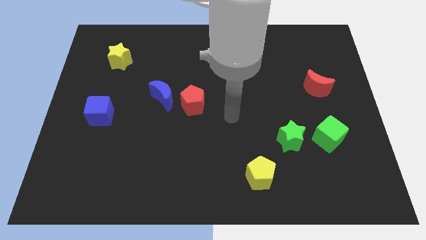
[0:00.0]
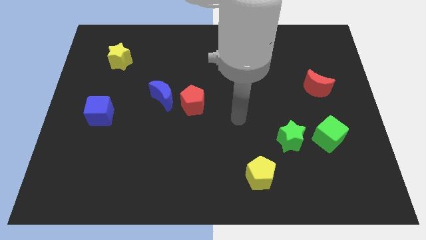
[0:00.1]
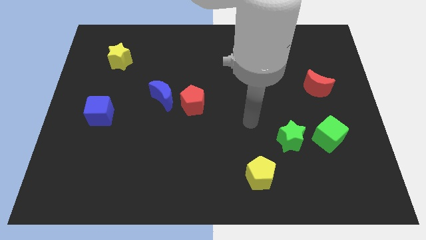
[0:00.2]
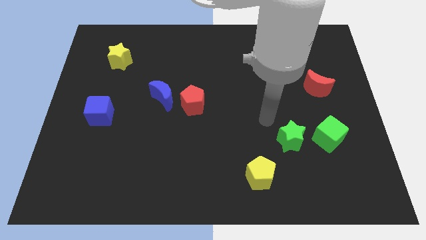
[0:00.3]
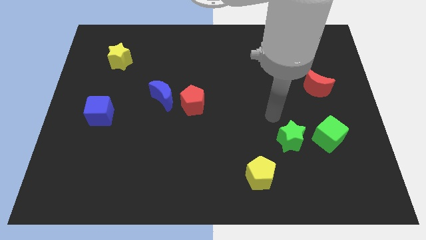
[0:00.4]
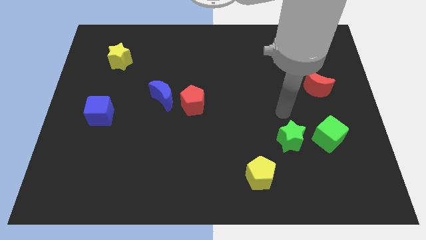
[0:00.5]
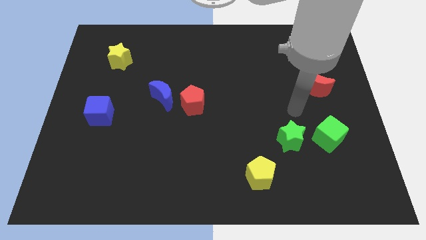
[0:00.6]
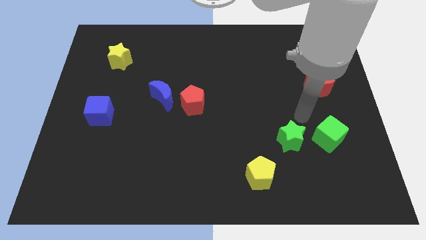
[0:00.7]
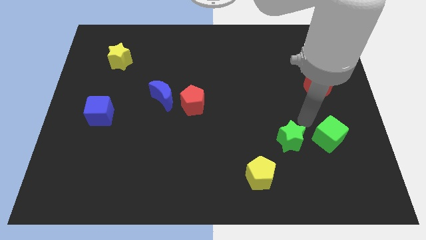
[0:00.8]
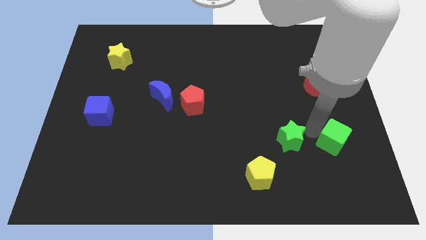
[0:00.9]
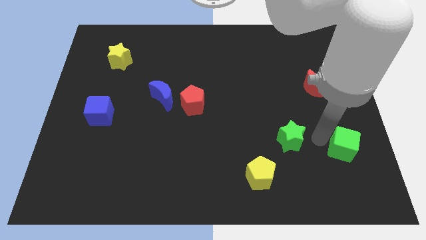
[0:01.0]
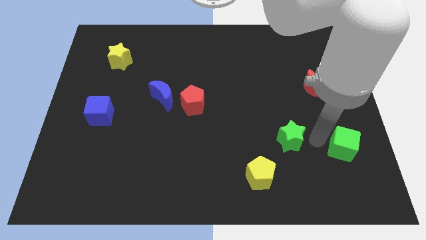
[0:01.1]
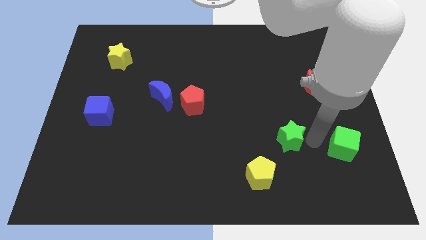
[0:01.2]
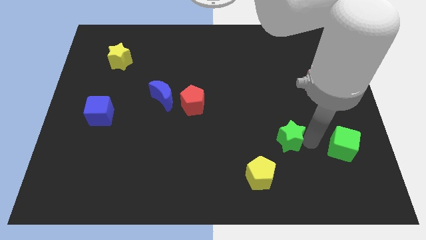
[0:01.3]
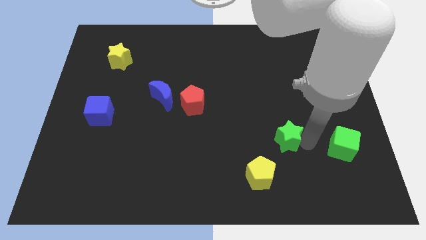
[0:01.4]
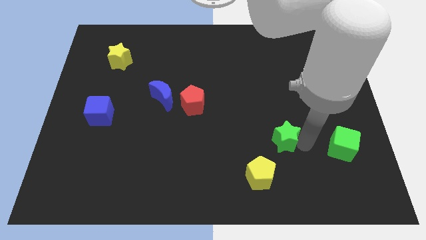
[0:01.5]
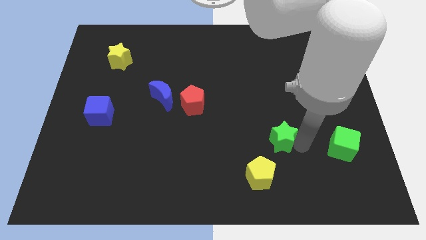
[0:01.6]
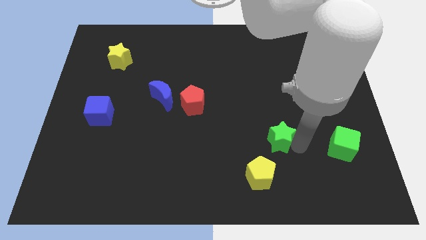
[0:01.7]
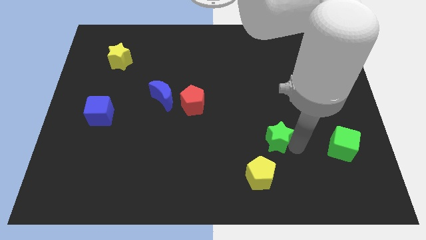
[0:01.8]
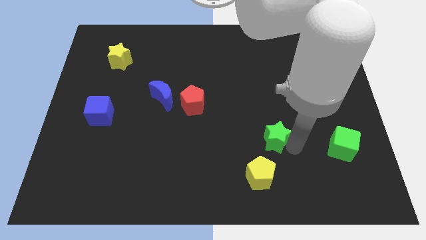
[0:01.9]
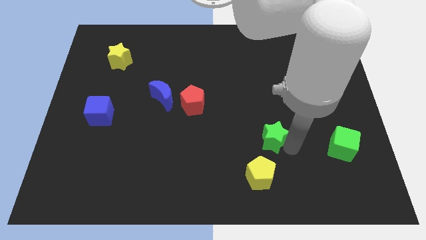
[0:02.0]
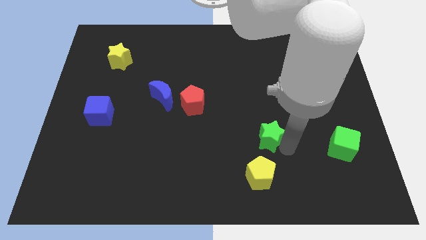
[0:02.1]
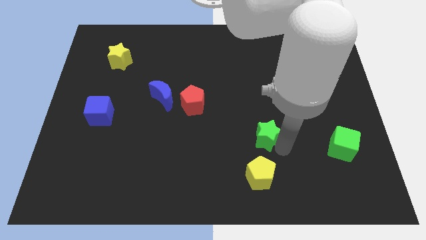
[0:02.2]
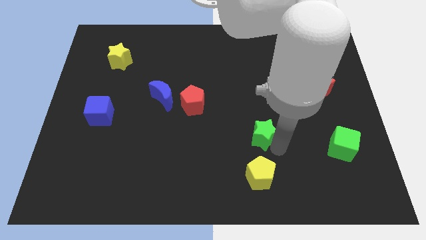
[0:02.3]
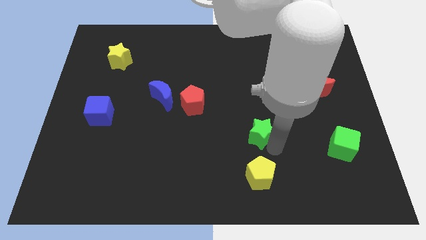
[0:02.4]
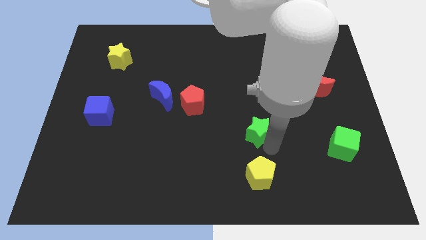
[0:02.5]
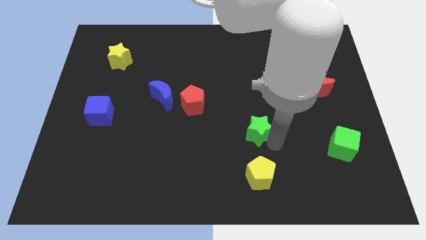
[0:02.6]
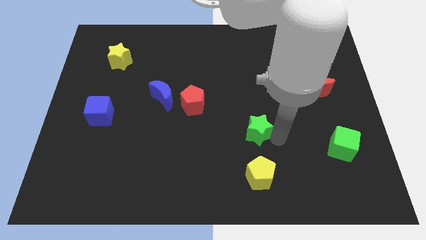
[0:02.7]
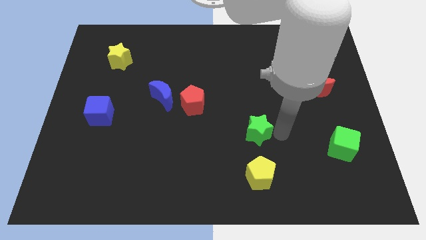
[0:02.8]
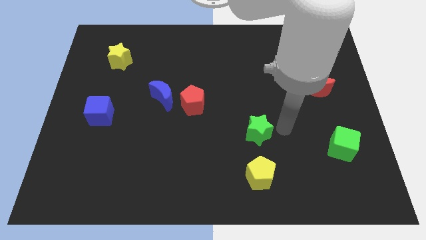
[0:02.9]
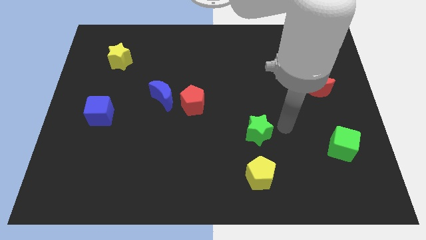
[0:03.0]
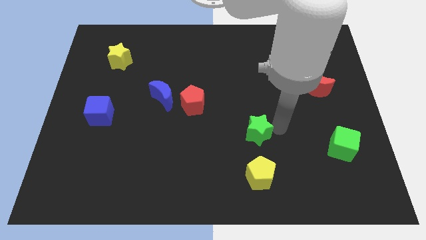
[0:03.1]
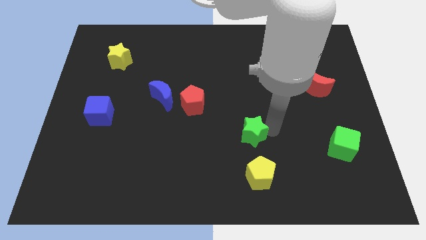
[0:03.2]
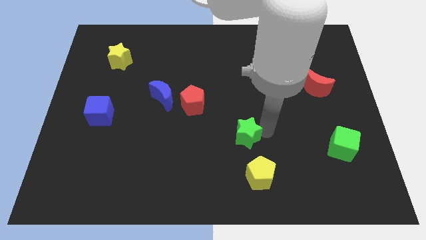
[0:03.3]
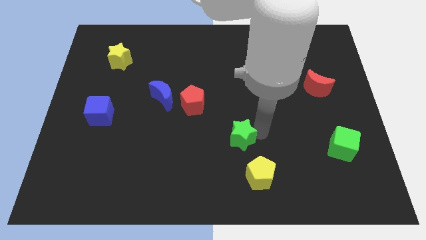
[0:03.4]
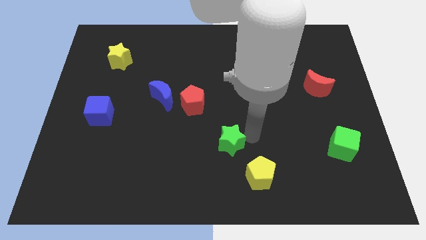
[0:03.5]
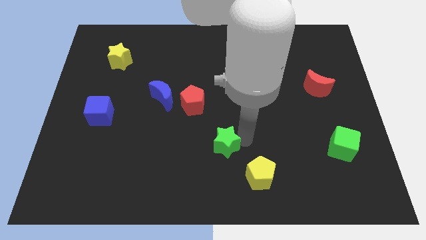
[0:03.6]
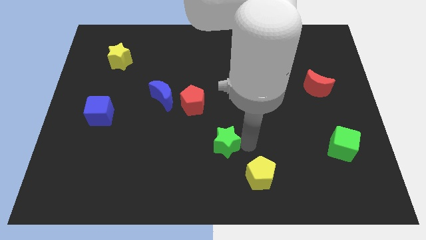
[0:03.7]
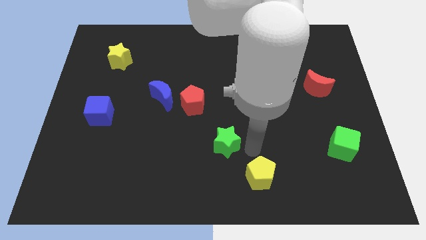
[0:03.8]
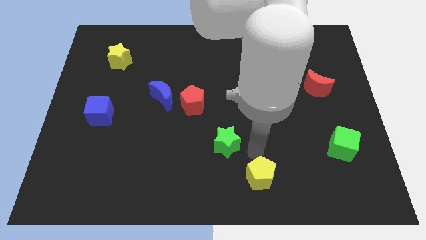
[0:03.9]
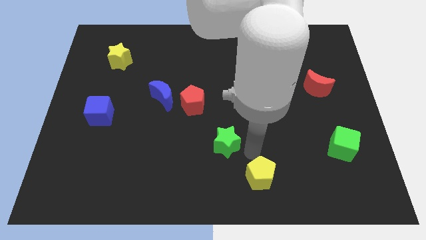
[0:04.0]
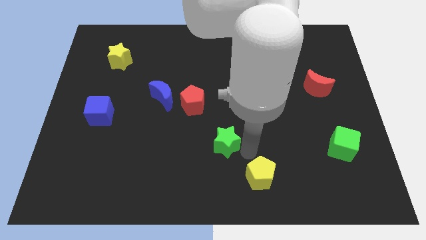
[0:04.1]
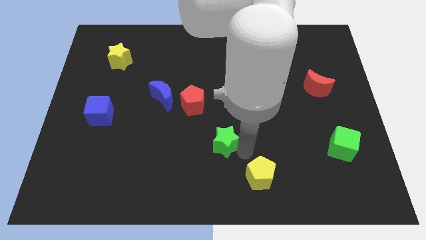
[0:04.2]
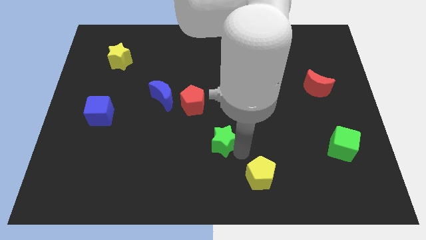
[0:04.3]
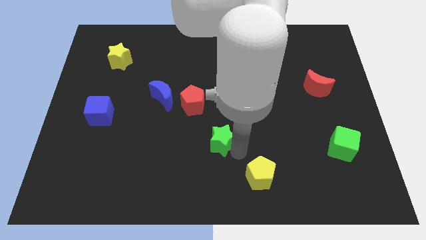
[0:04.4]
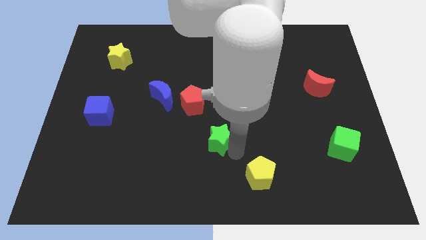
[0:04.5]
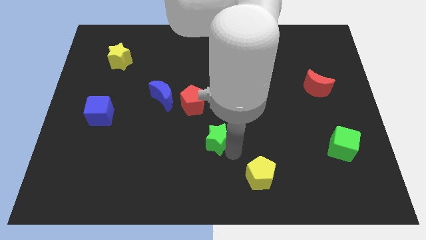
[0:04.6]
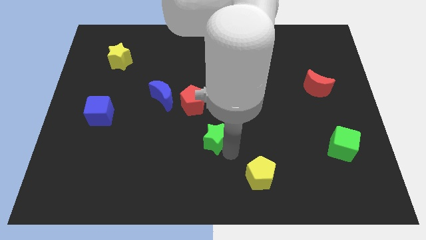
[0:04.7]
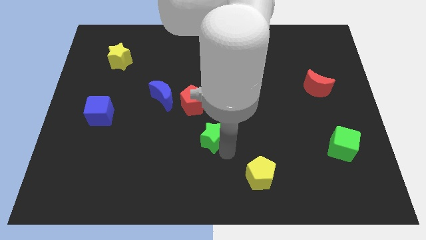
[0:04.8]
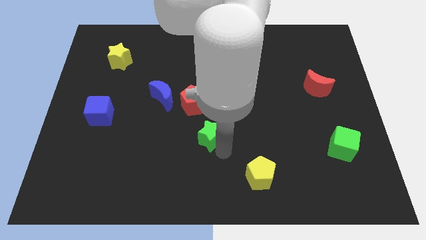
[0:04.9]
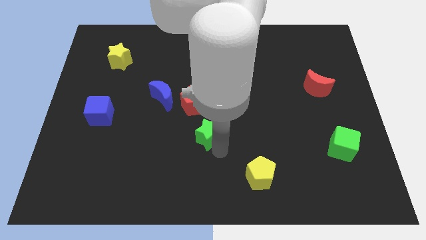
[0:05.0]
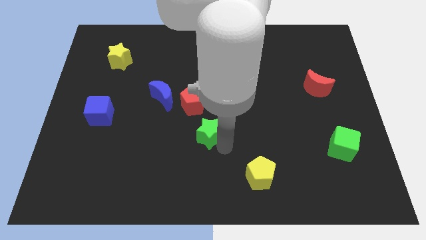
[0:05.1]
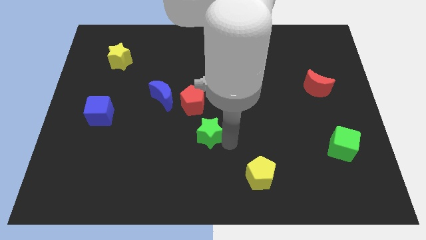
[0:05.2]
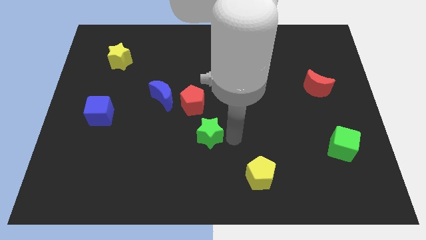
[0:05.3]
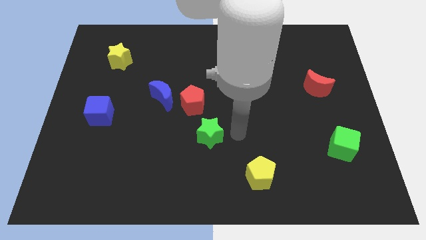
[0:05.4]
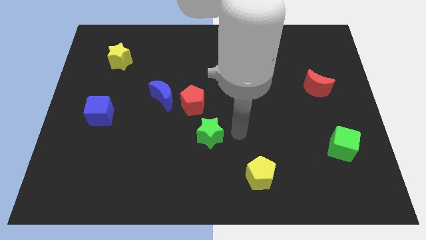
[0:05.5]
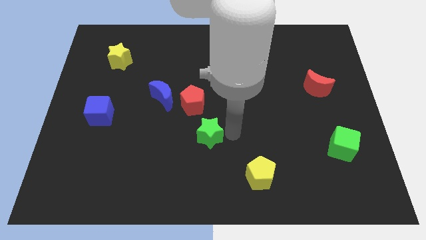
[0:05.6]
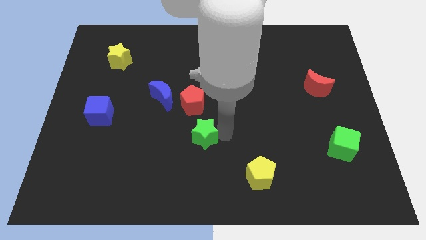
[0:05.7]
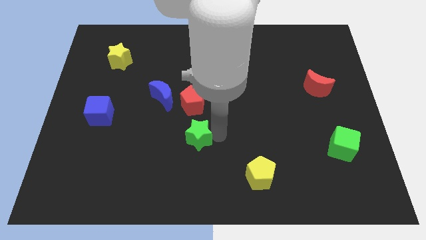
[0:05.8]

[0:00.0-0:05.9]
move the green star left

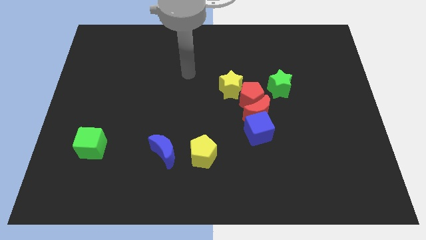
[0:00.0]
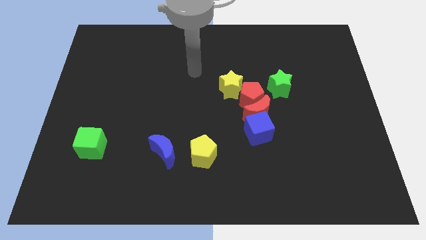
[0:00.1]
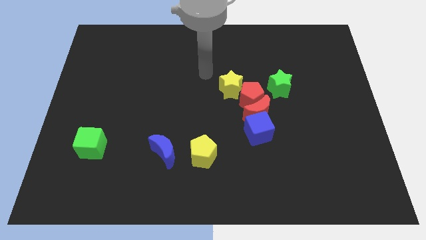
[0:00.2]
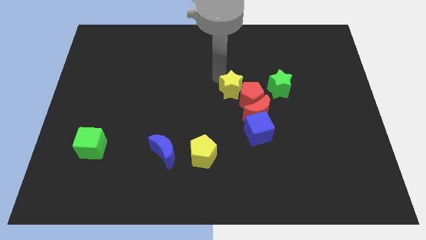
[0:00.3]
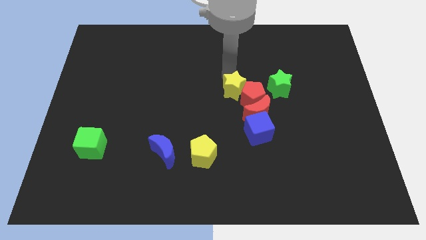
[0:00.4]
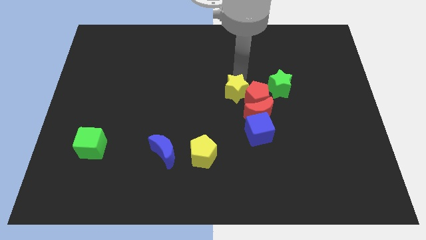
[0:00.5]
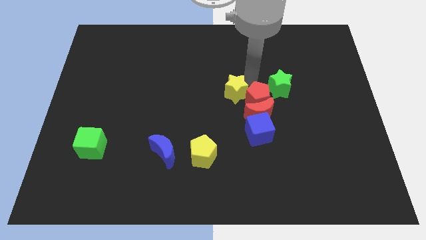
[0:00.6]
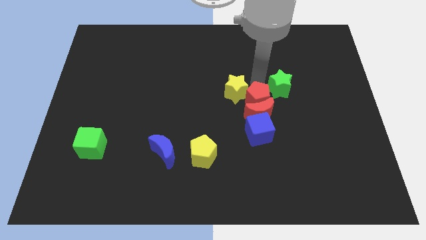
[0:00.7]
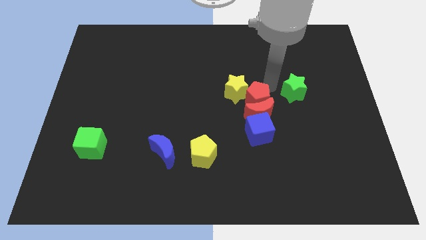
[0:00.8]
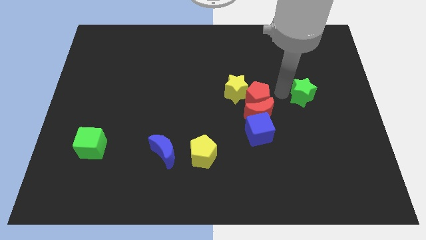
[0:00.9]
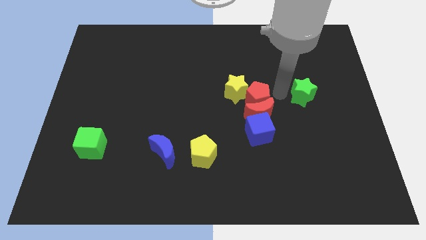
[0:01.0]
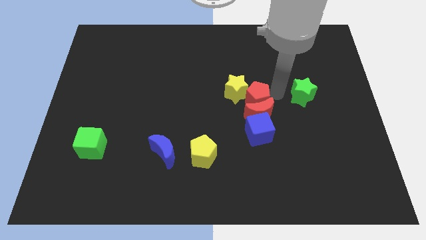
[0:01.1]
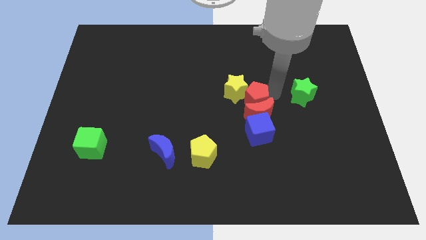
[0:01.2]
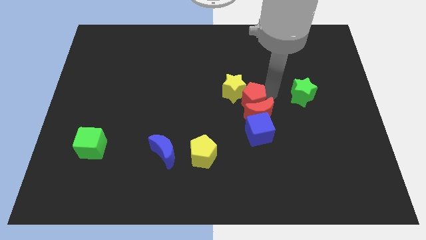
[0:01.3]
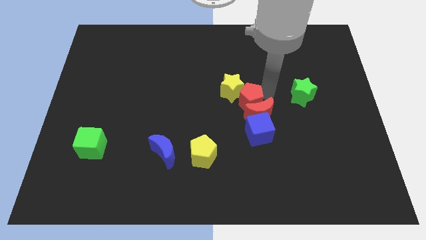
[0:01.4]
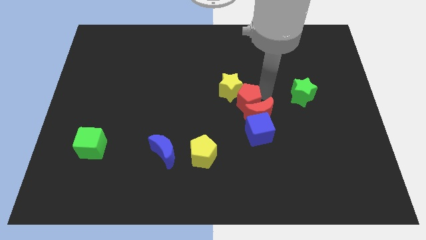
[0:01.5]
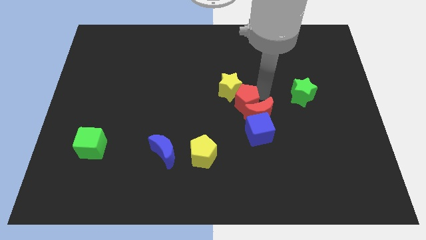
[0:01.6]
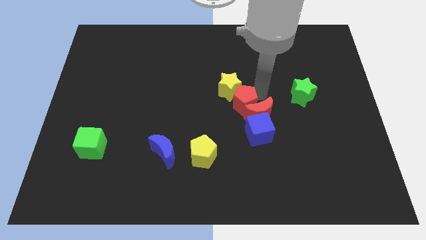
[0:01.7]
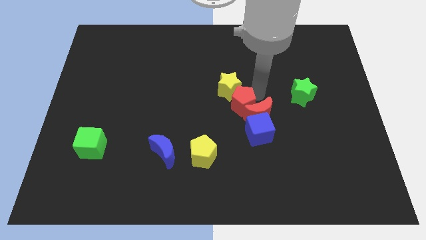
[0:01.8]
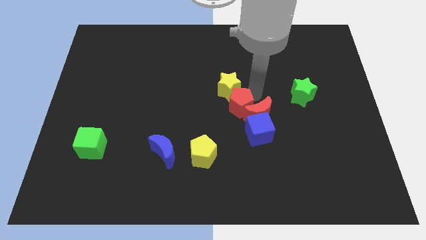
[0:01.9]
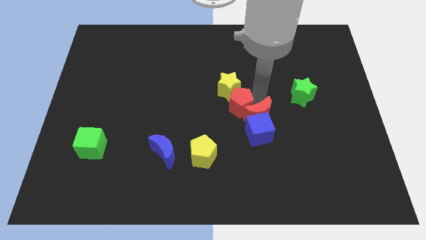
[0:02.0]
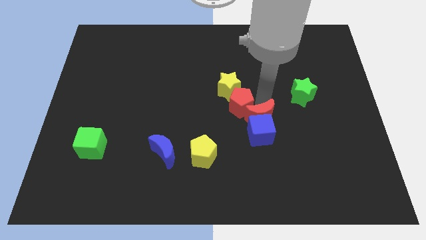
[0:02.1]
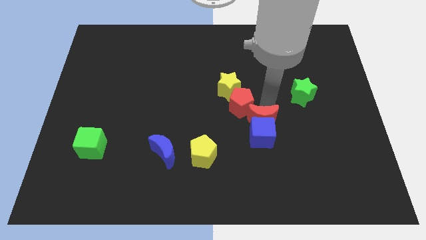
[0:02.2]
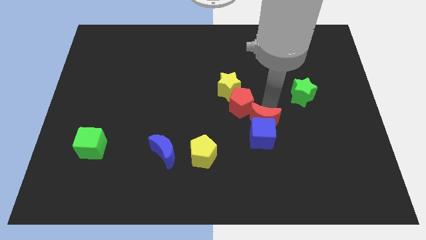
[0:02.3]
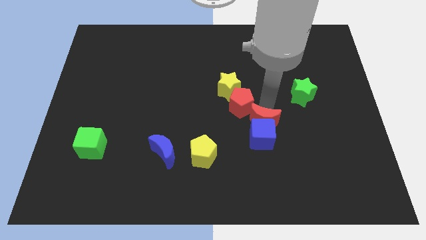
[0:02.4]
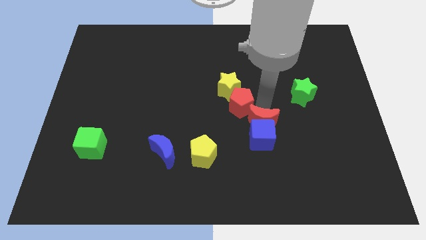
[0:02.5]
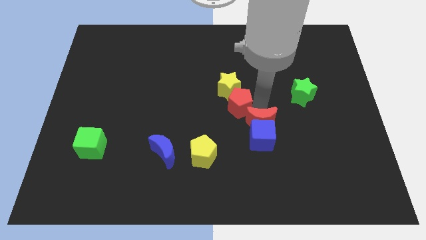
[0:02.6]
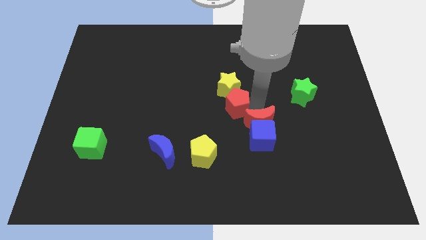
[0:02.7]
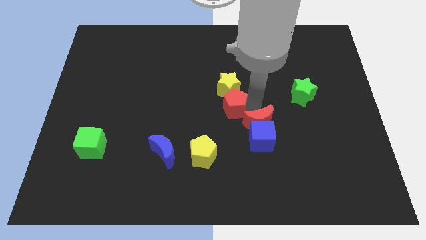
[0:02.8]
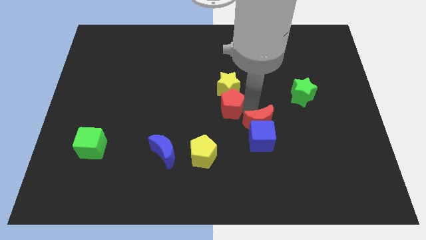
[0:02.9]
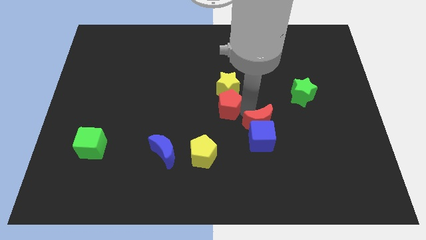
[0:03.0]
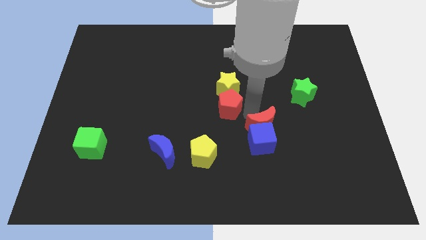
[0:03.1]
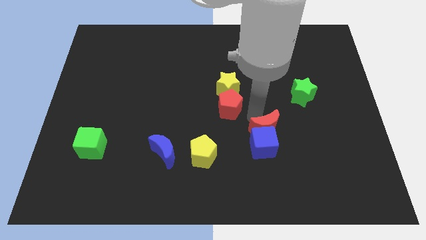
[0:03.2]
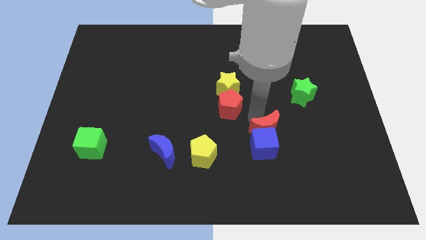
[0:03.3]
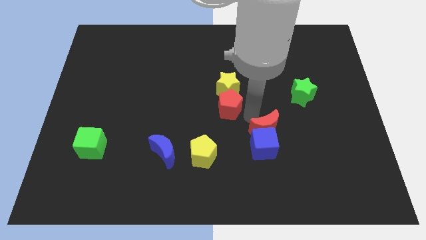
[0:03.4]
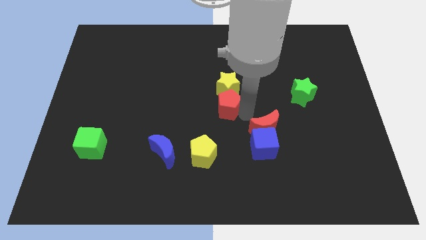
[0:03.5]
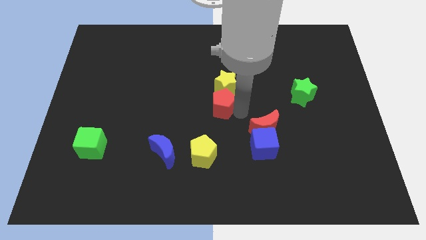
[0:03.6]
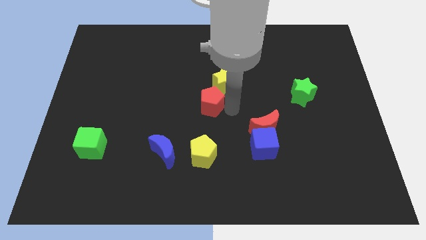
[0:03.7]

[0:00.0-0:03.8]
slide the red pentagon to the left somewhat
